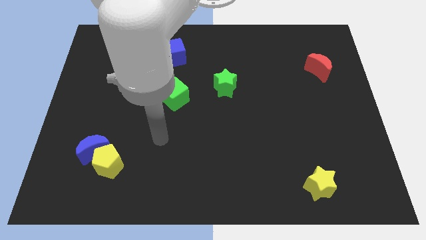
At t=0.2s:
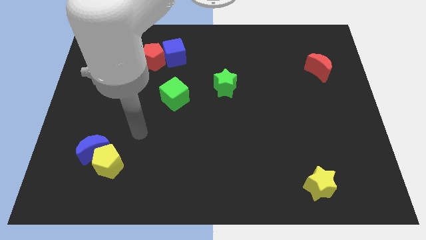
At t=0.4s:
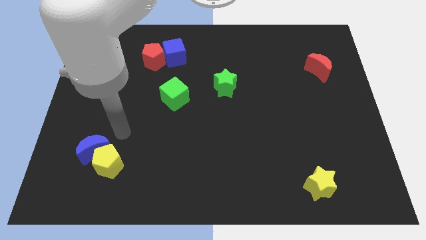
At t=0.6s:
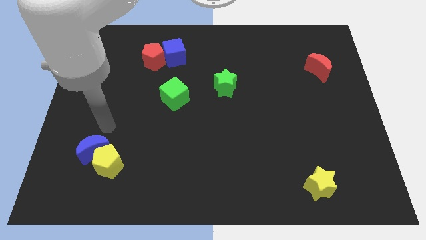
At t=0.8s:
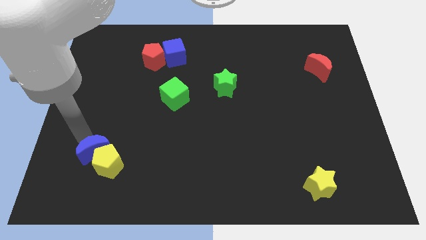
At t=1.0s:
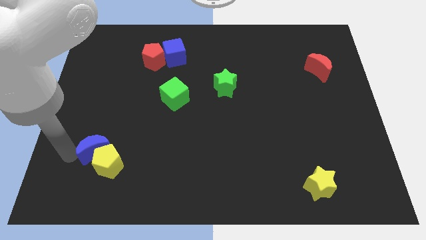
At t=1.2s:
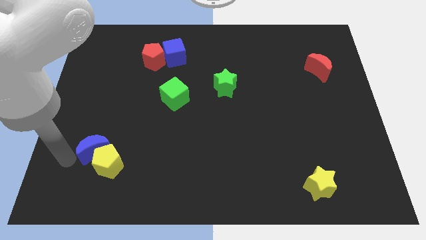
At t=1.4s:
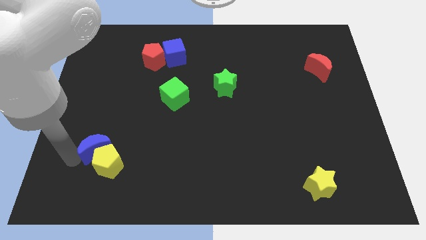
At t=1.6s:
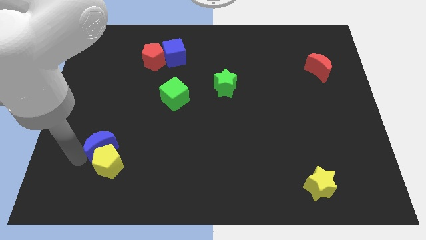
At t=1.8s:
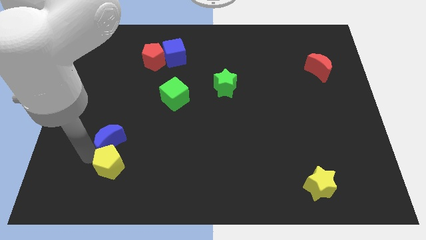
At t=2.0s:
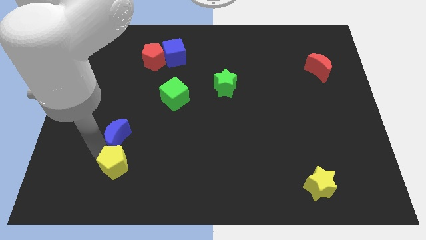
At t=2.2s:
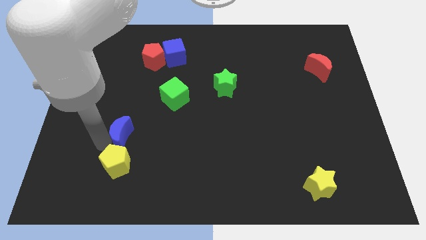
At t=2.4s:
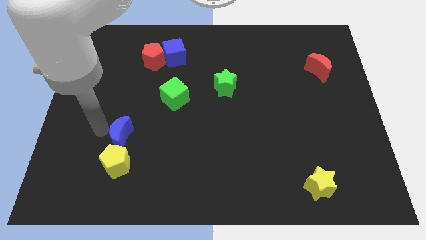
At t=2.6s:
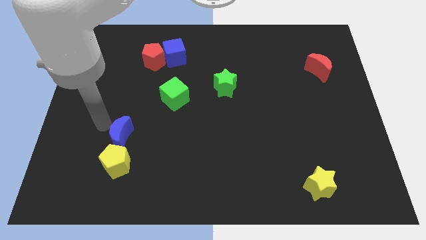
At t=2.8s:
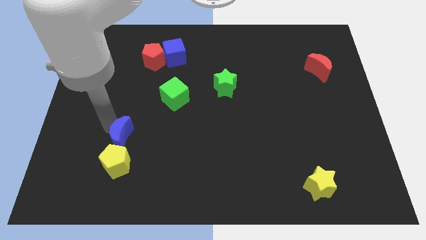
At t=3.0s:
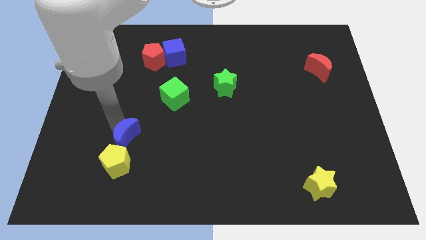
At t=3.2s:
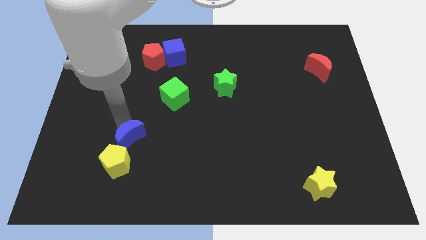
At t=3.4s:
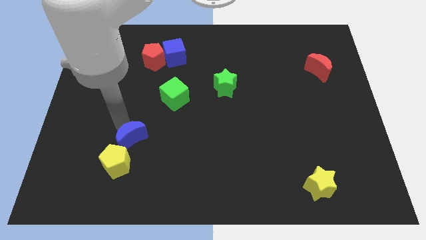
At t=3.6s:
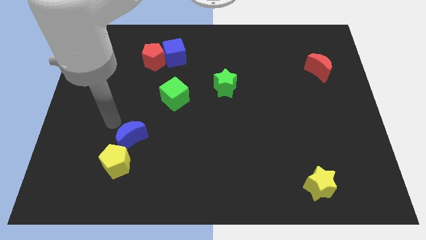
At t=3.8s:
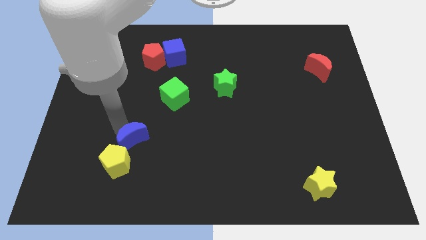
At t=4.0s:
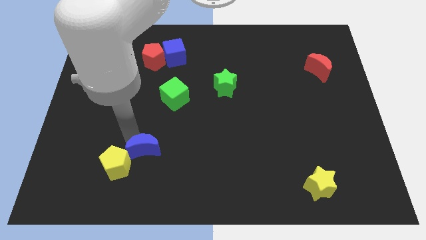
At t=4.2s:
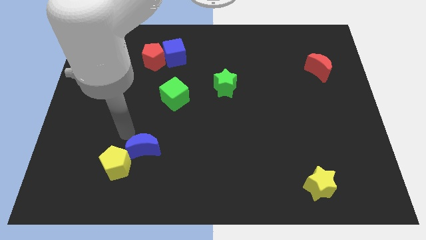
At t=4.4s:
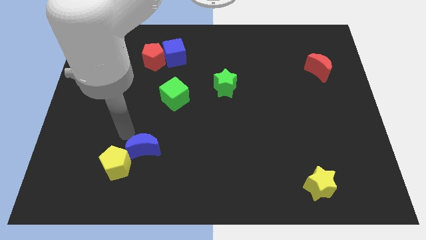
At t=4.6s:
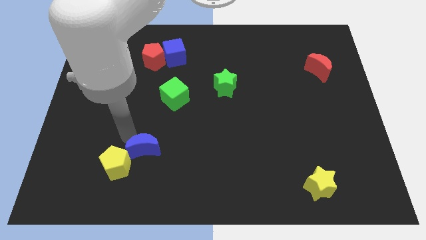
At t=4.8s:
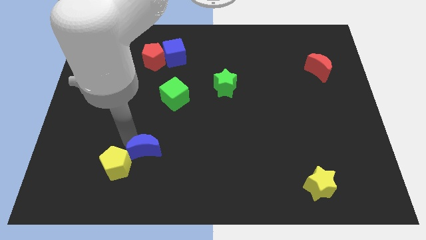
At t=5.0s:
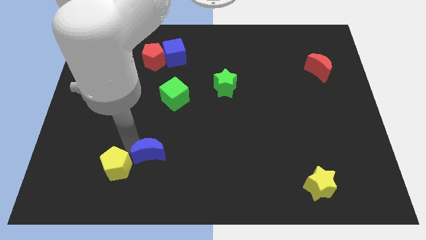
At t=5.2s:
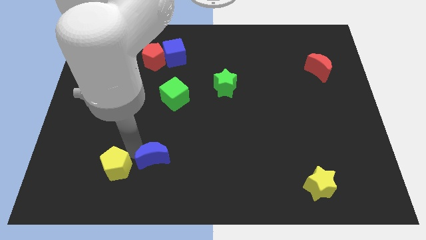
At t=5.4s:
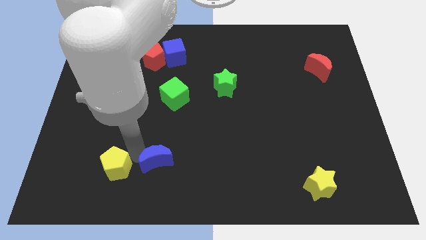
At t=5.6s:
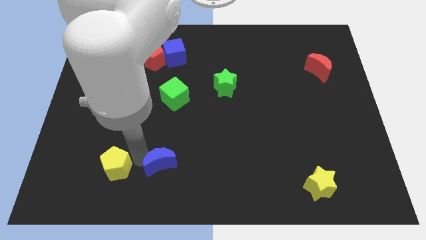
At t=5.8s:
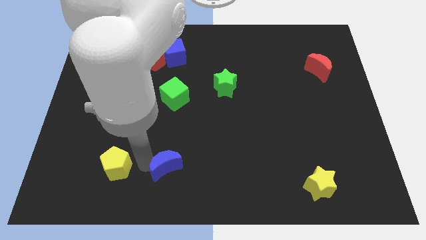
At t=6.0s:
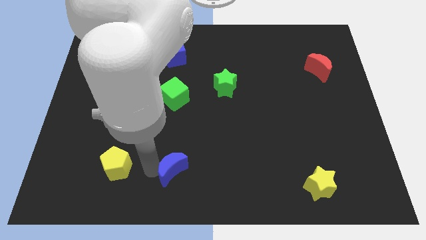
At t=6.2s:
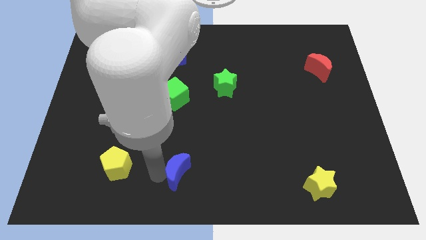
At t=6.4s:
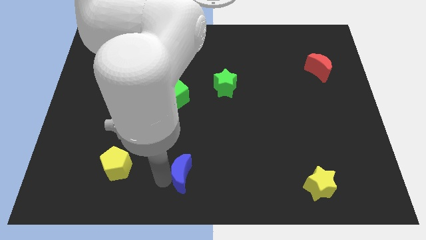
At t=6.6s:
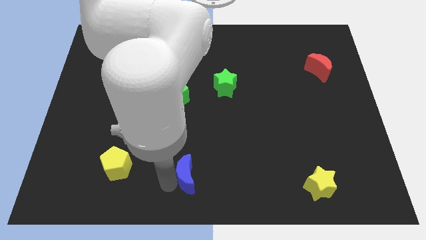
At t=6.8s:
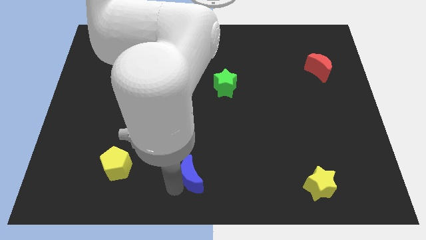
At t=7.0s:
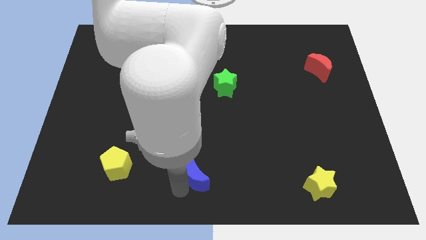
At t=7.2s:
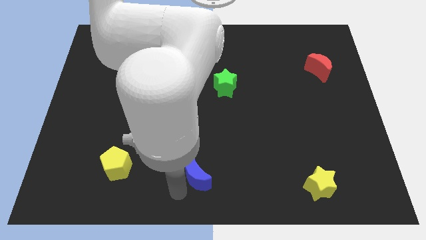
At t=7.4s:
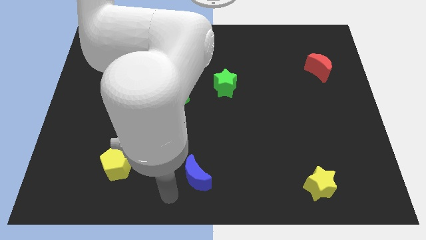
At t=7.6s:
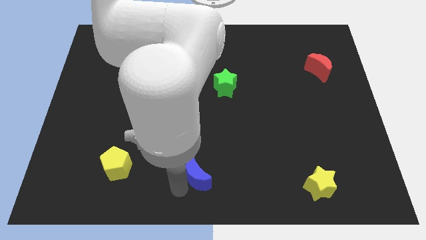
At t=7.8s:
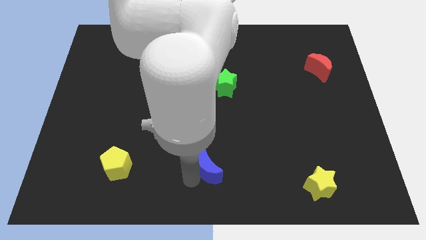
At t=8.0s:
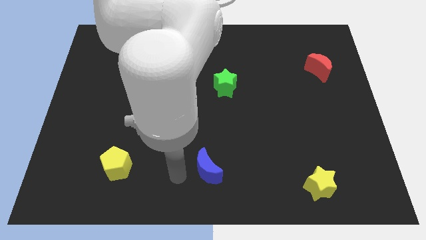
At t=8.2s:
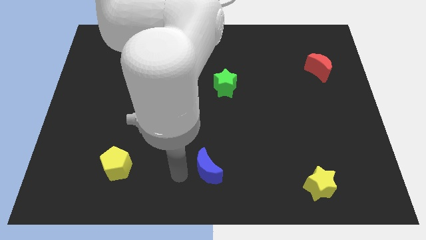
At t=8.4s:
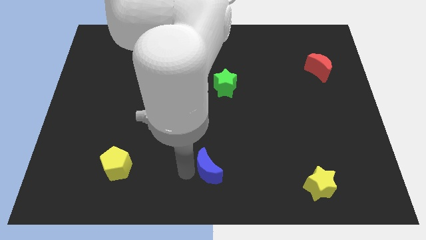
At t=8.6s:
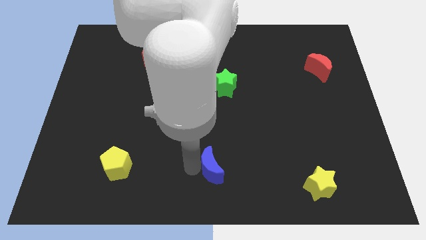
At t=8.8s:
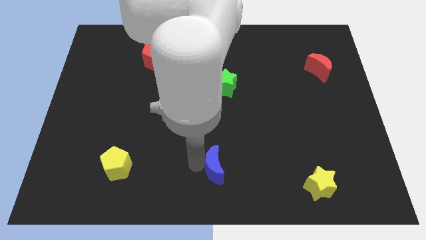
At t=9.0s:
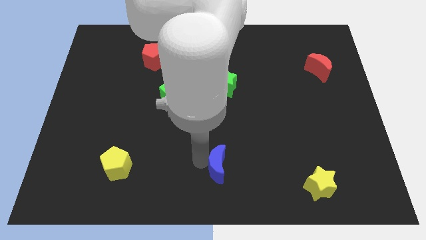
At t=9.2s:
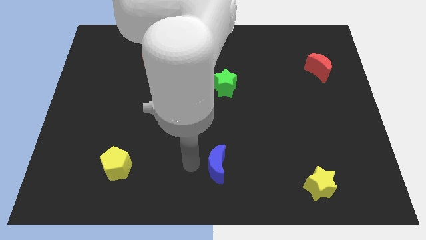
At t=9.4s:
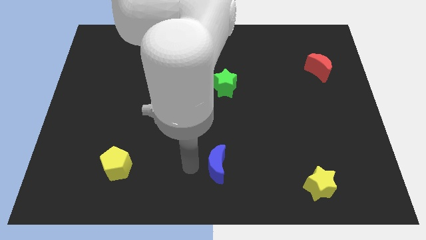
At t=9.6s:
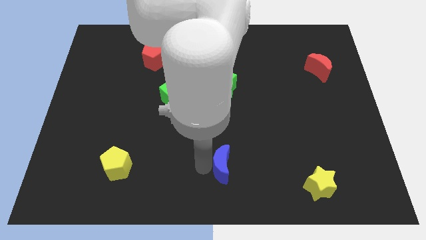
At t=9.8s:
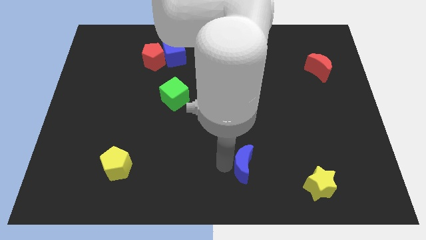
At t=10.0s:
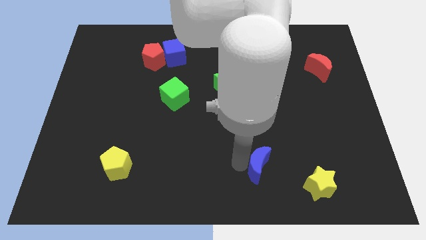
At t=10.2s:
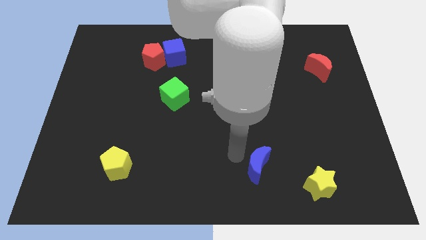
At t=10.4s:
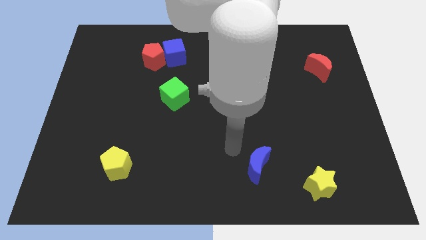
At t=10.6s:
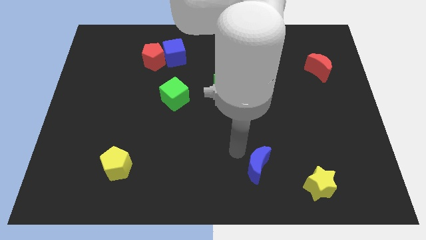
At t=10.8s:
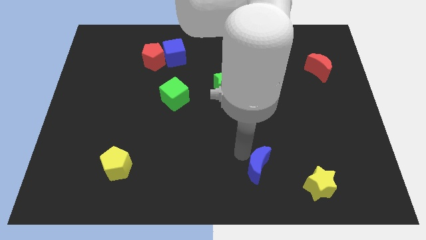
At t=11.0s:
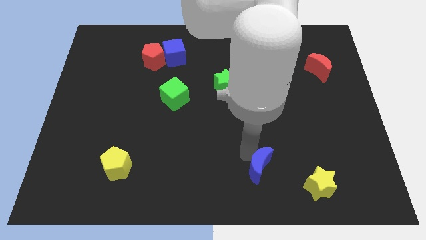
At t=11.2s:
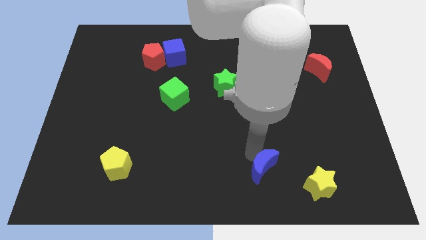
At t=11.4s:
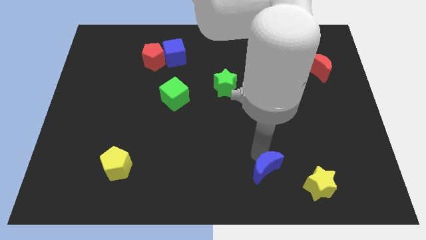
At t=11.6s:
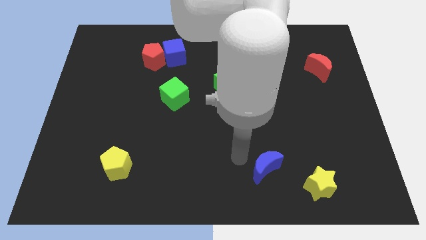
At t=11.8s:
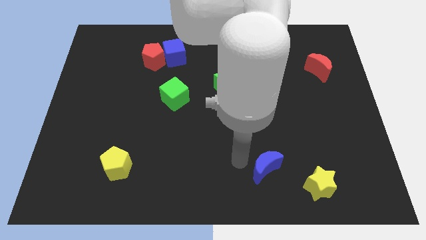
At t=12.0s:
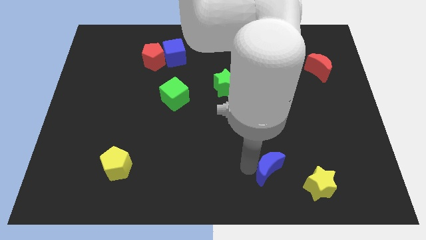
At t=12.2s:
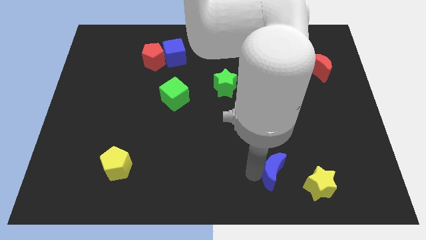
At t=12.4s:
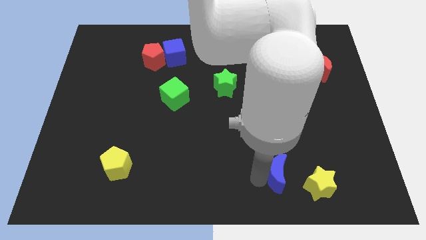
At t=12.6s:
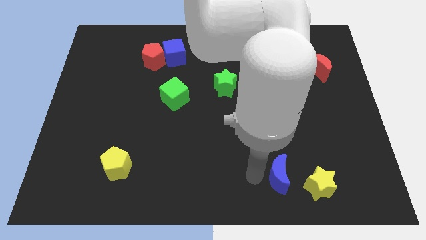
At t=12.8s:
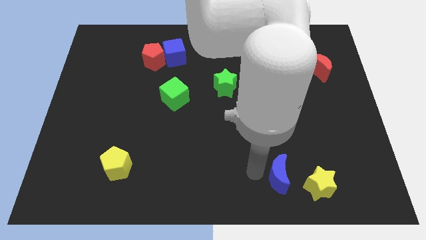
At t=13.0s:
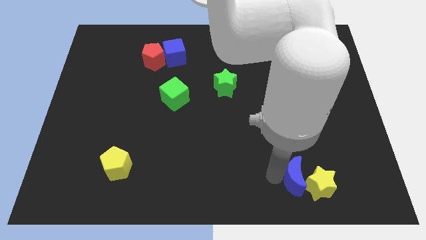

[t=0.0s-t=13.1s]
put the blue moon to the yellow star

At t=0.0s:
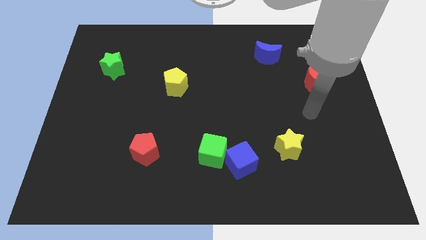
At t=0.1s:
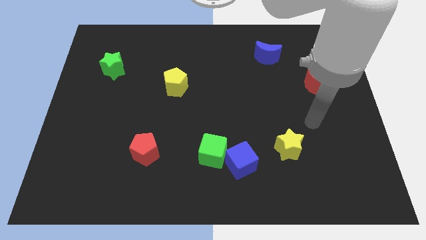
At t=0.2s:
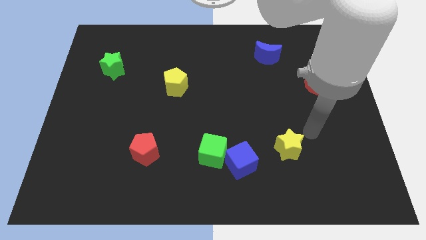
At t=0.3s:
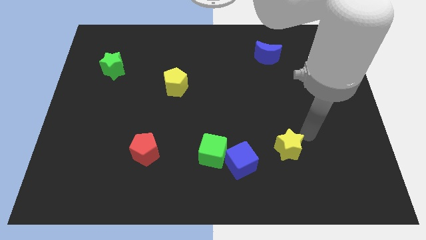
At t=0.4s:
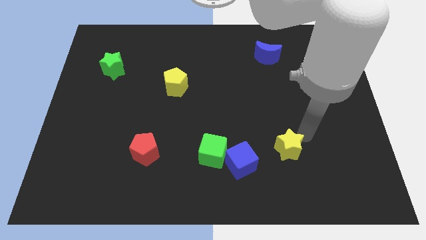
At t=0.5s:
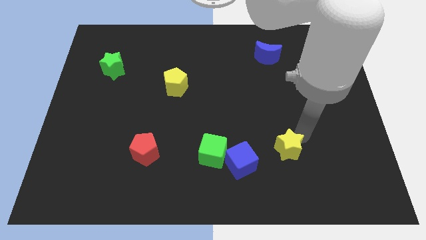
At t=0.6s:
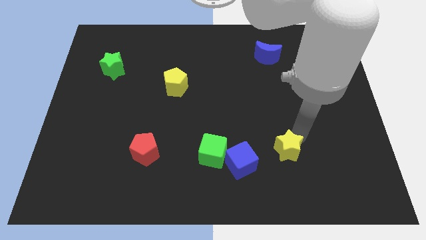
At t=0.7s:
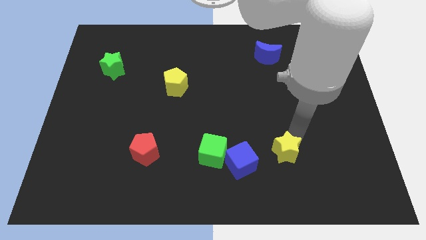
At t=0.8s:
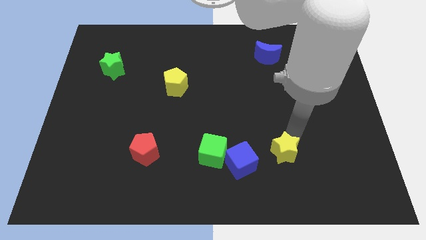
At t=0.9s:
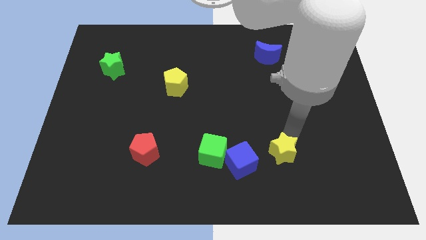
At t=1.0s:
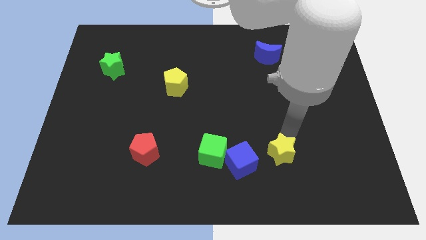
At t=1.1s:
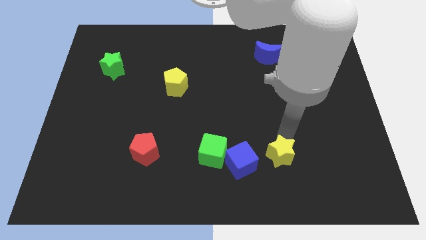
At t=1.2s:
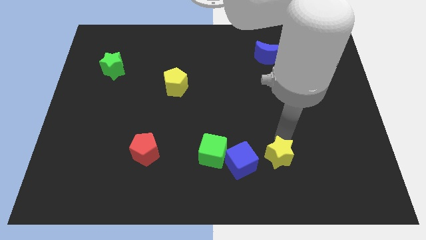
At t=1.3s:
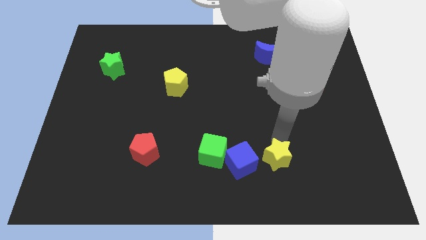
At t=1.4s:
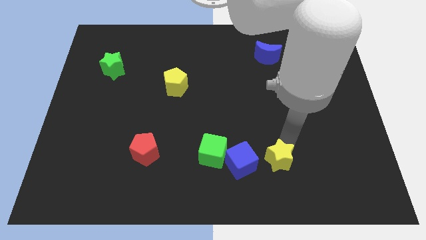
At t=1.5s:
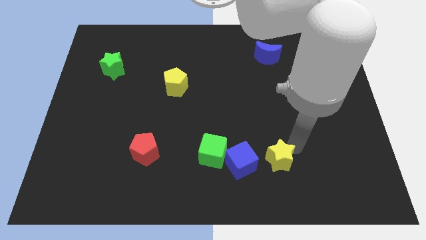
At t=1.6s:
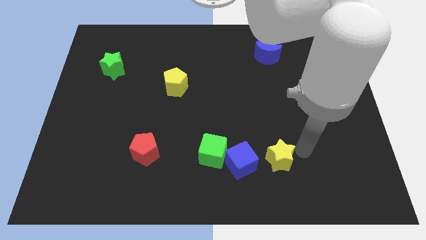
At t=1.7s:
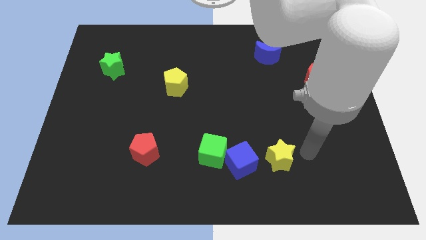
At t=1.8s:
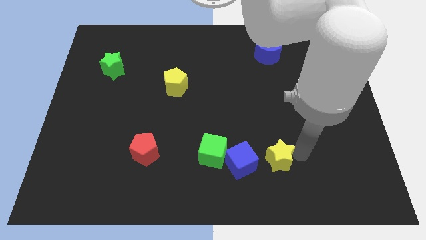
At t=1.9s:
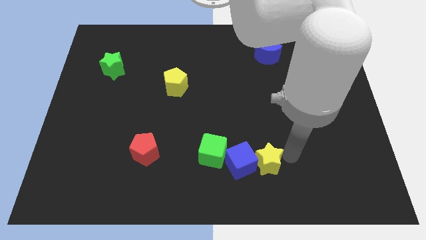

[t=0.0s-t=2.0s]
put the yellow star towards the blue cube
